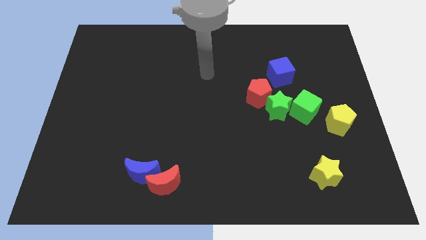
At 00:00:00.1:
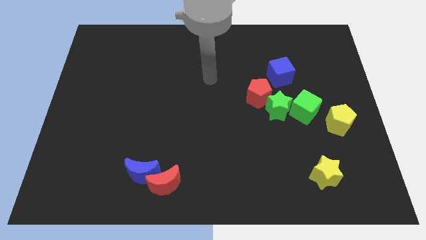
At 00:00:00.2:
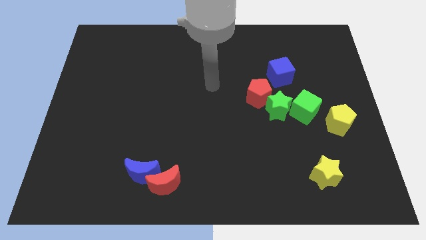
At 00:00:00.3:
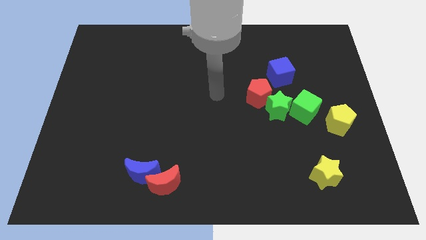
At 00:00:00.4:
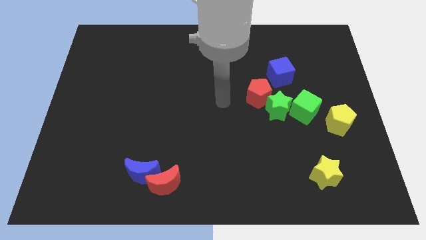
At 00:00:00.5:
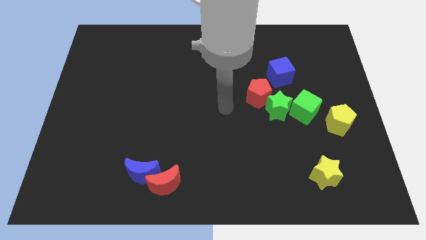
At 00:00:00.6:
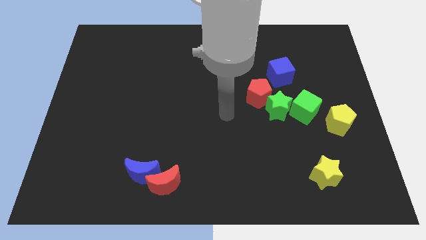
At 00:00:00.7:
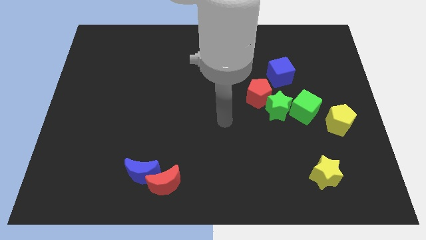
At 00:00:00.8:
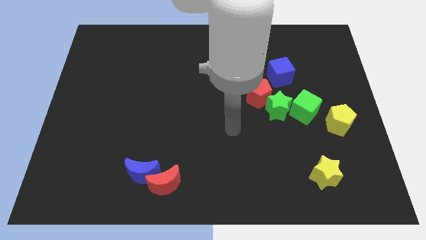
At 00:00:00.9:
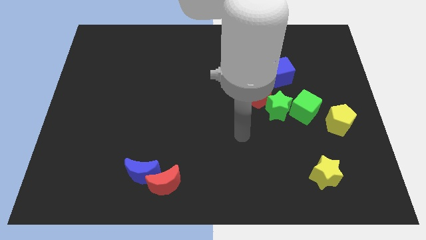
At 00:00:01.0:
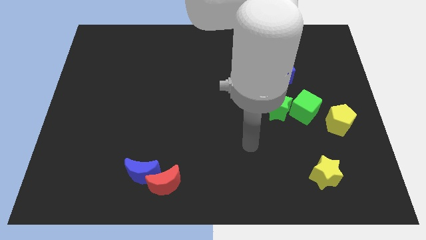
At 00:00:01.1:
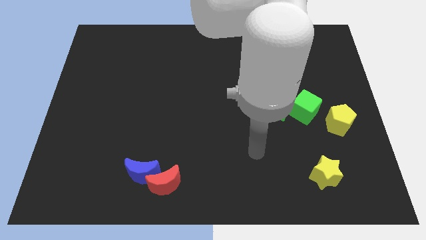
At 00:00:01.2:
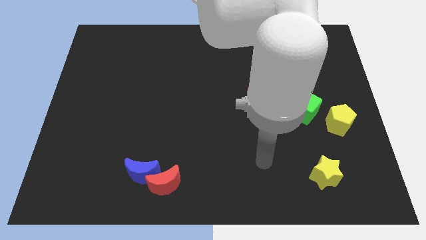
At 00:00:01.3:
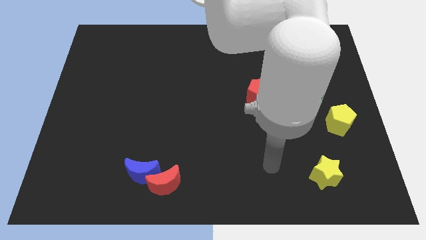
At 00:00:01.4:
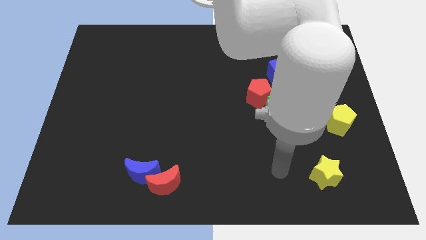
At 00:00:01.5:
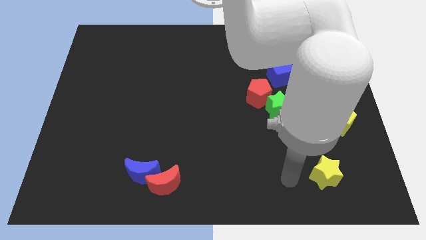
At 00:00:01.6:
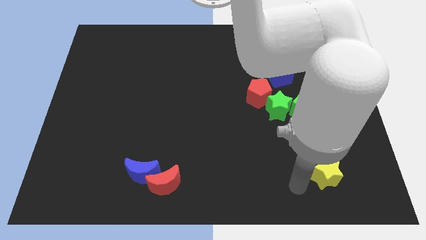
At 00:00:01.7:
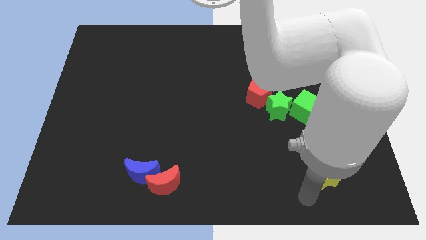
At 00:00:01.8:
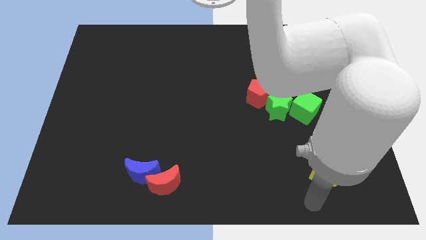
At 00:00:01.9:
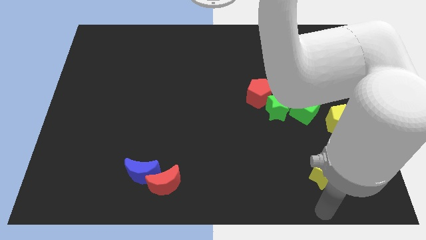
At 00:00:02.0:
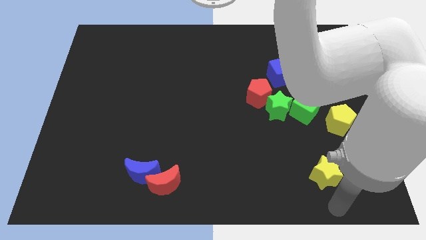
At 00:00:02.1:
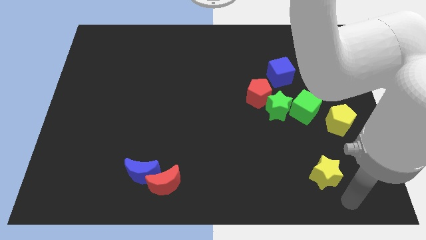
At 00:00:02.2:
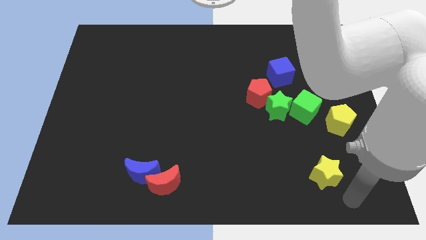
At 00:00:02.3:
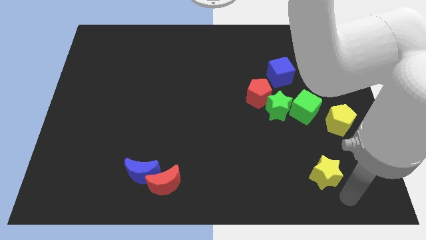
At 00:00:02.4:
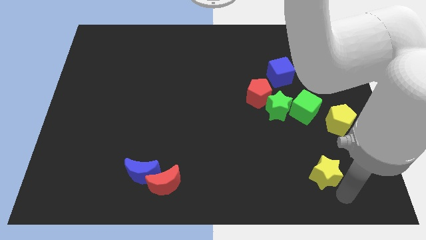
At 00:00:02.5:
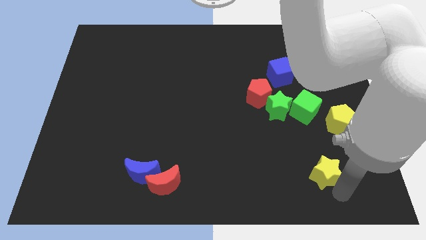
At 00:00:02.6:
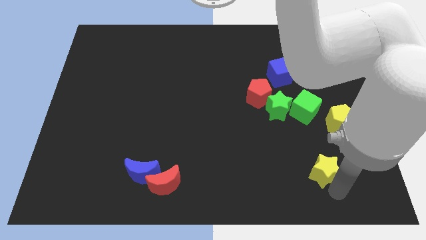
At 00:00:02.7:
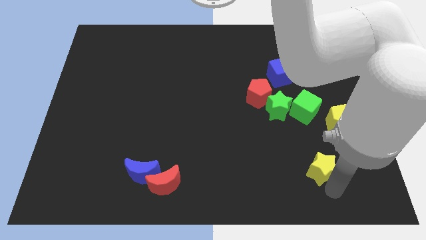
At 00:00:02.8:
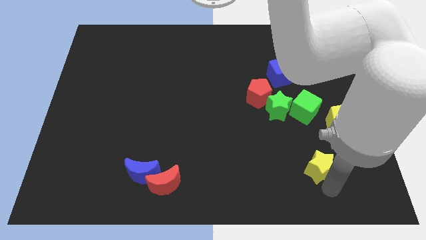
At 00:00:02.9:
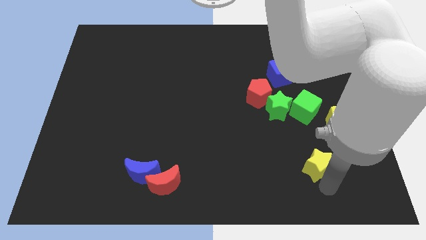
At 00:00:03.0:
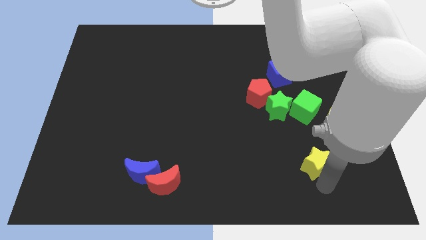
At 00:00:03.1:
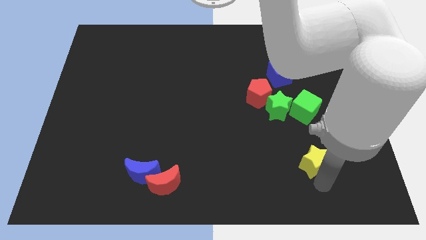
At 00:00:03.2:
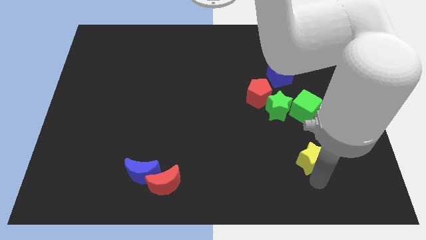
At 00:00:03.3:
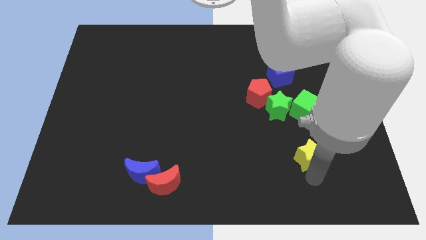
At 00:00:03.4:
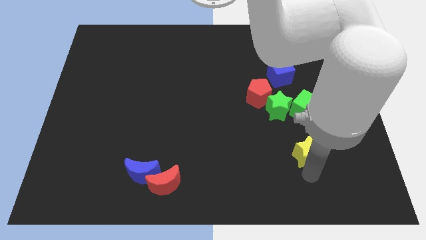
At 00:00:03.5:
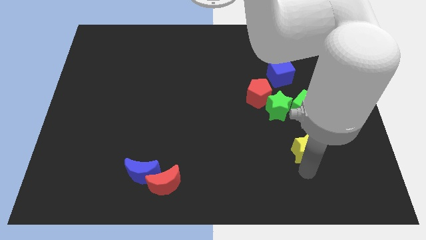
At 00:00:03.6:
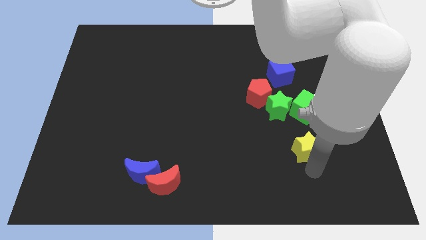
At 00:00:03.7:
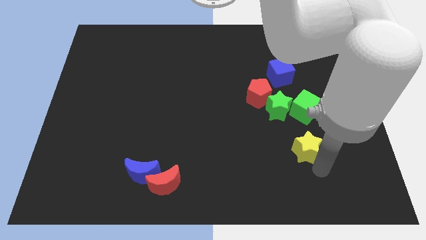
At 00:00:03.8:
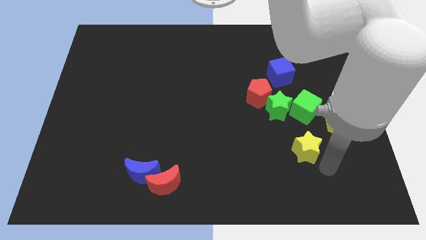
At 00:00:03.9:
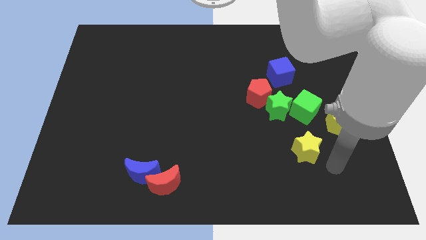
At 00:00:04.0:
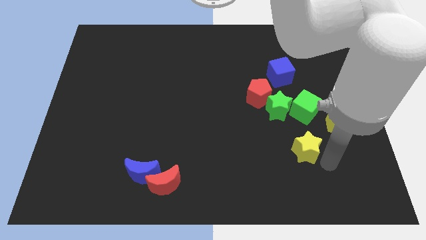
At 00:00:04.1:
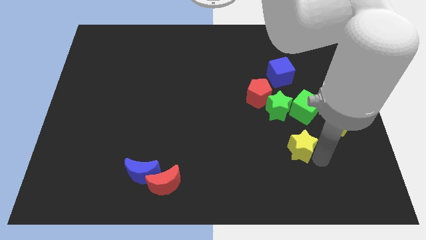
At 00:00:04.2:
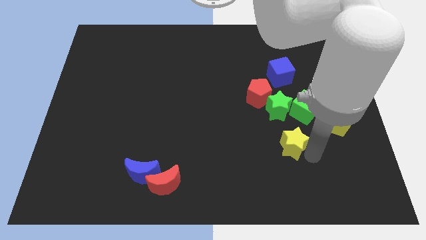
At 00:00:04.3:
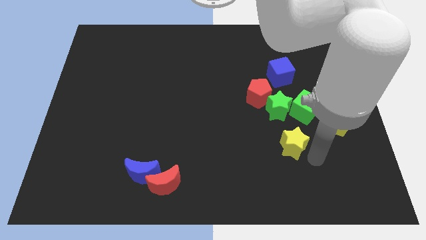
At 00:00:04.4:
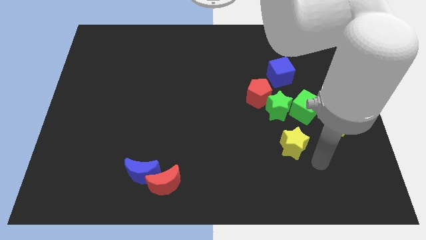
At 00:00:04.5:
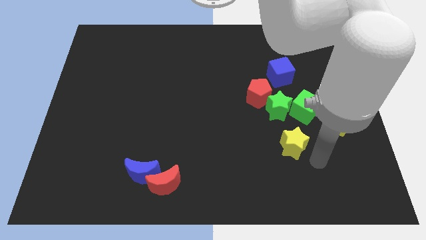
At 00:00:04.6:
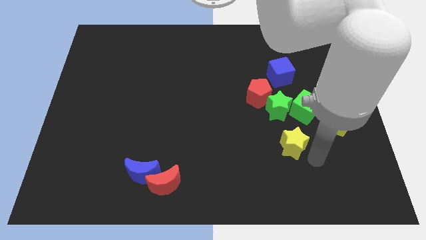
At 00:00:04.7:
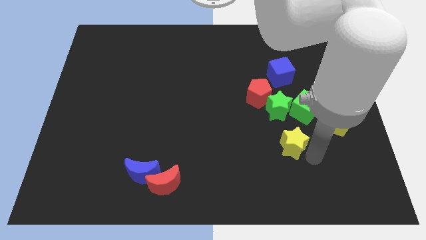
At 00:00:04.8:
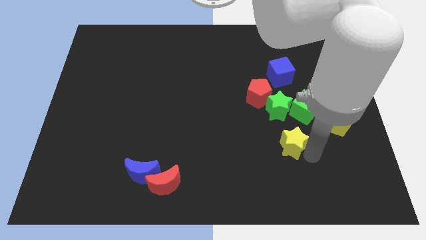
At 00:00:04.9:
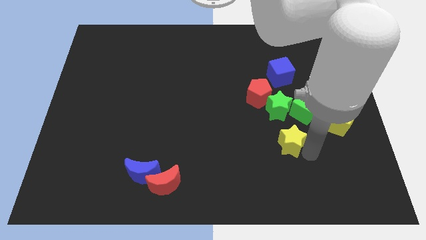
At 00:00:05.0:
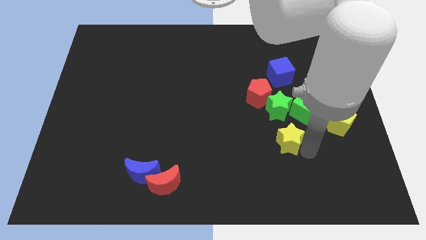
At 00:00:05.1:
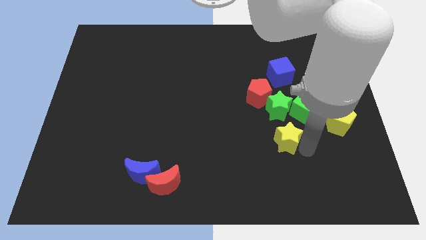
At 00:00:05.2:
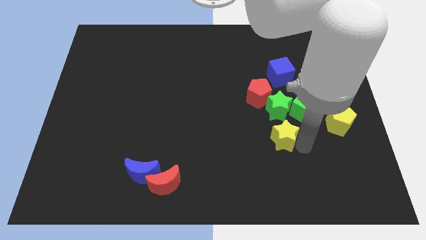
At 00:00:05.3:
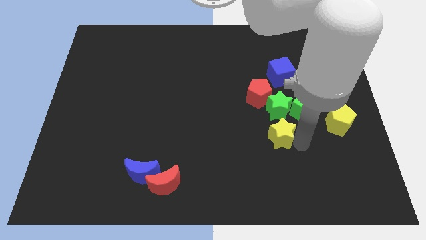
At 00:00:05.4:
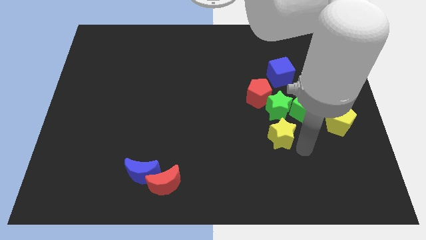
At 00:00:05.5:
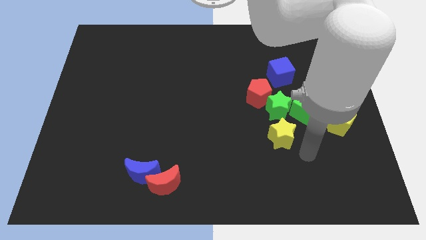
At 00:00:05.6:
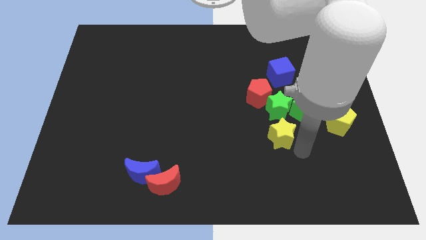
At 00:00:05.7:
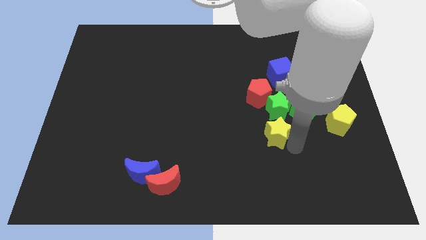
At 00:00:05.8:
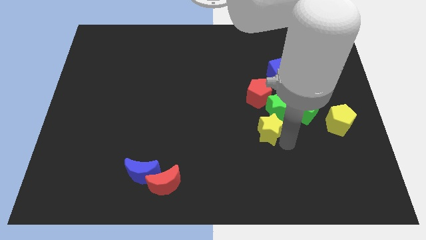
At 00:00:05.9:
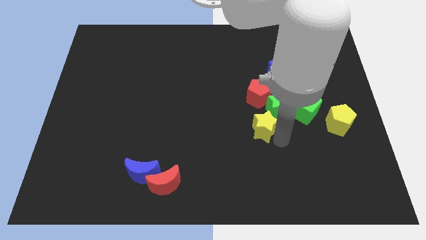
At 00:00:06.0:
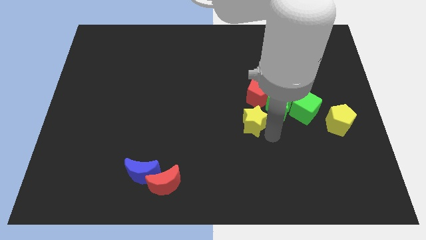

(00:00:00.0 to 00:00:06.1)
move the yellow star to the left of the green star

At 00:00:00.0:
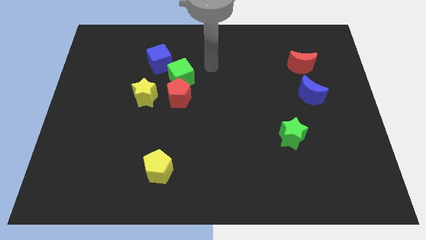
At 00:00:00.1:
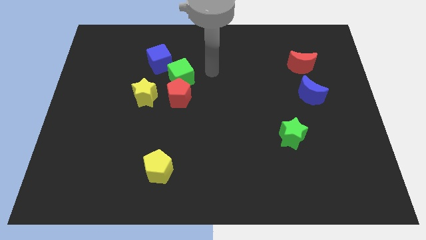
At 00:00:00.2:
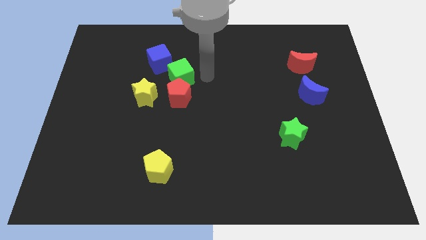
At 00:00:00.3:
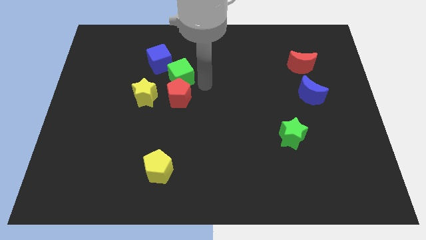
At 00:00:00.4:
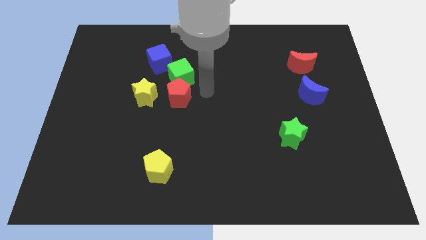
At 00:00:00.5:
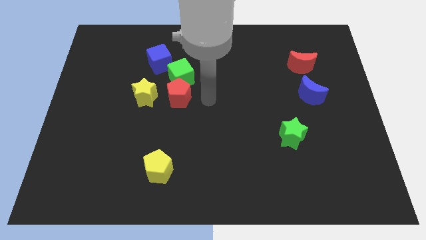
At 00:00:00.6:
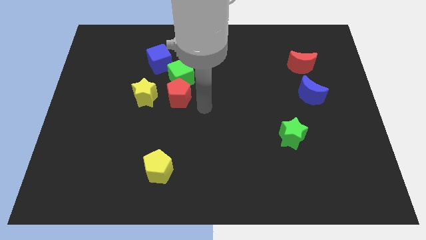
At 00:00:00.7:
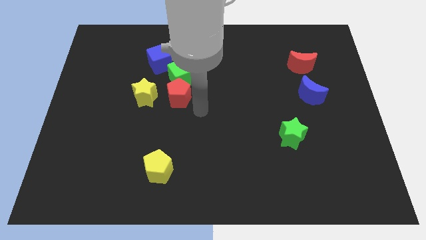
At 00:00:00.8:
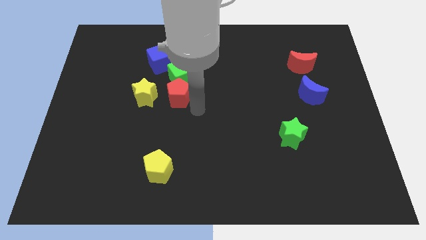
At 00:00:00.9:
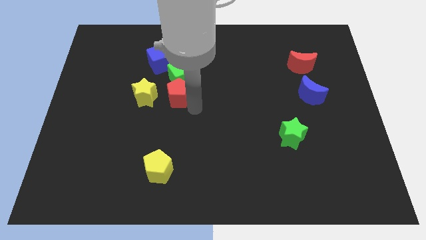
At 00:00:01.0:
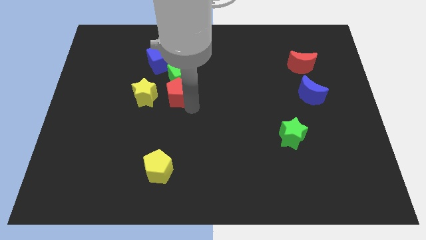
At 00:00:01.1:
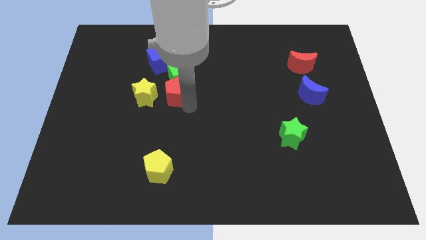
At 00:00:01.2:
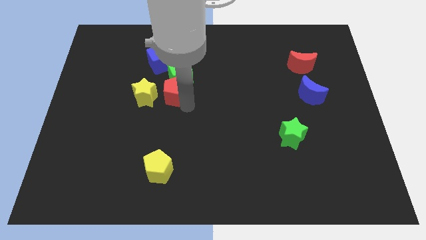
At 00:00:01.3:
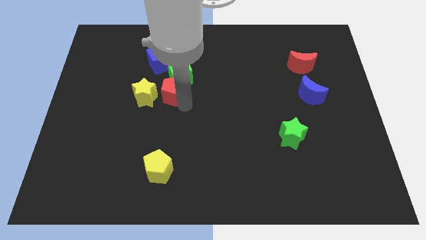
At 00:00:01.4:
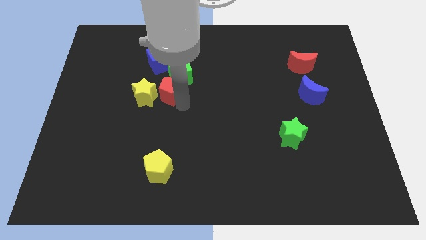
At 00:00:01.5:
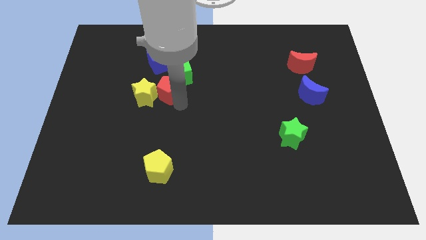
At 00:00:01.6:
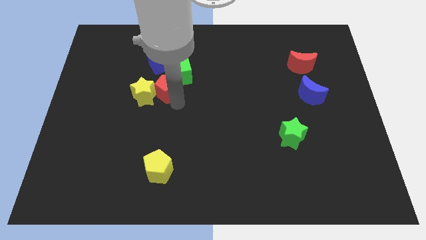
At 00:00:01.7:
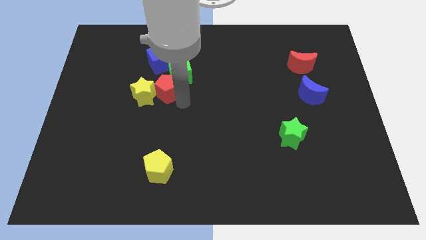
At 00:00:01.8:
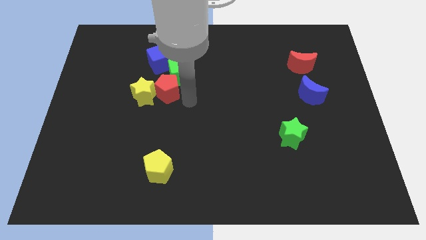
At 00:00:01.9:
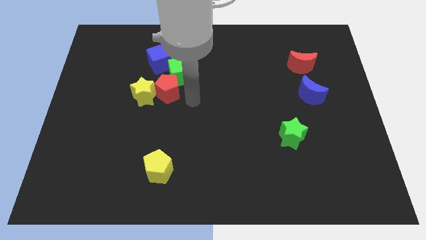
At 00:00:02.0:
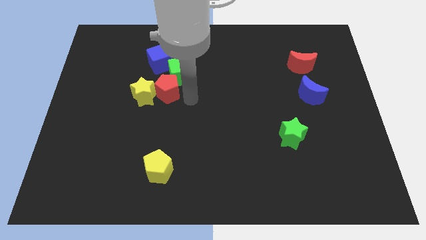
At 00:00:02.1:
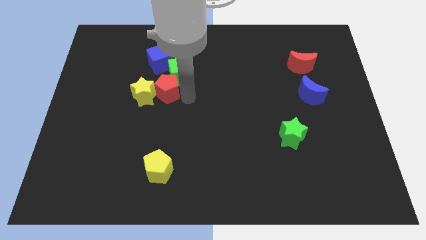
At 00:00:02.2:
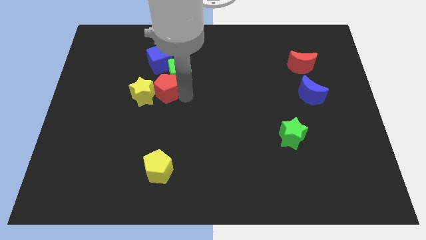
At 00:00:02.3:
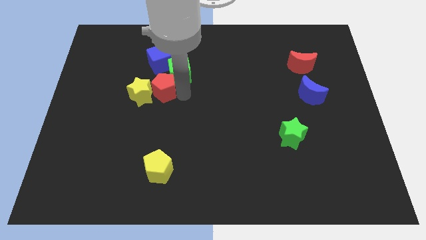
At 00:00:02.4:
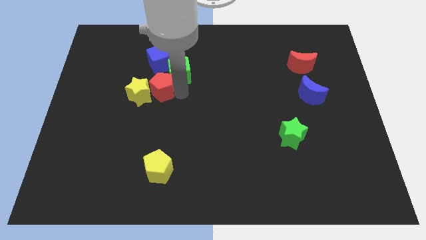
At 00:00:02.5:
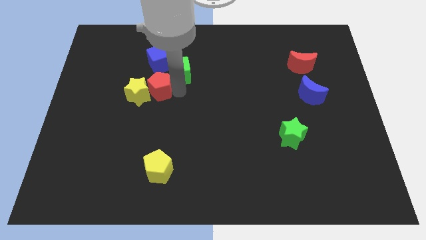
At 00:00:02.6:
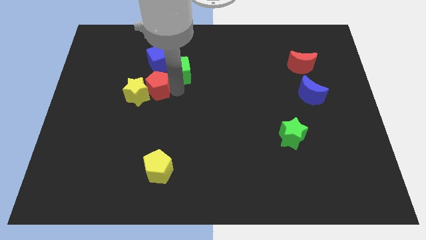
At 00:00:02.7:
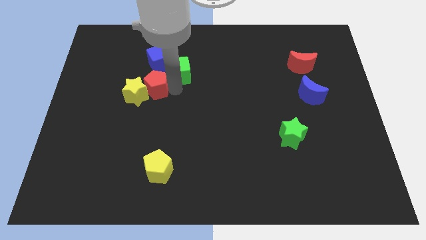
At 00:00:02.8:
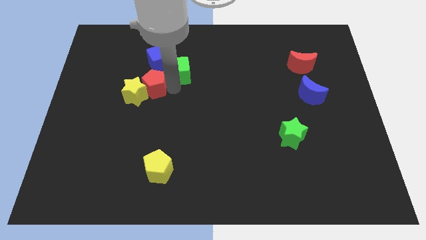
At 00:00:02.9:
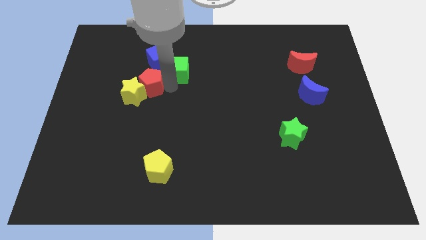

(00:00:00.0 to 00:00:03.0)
push the red pentagon to the top of the yellow star
